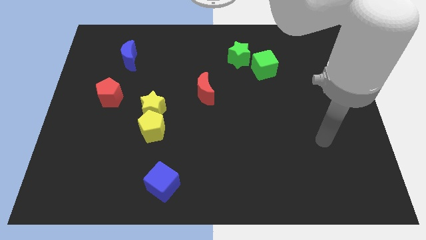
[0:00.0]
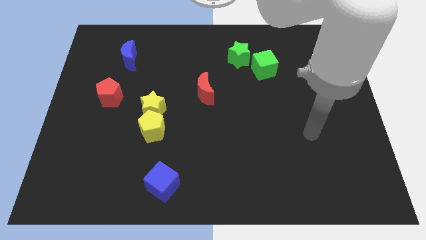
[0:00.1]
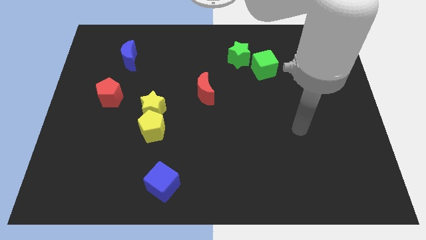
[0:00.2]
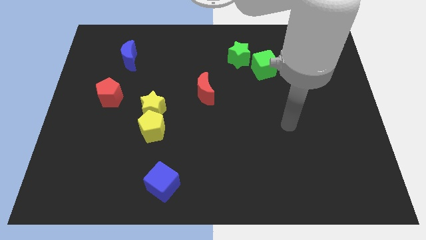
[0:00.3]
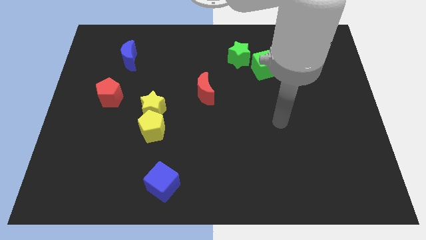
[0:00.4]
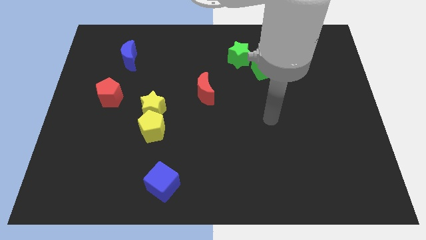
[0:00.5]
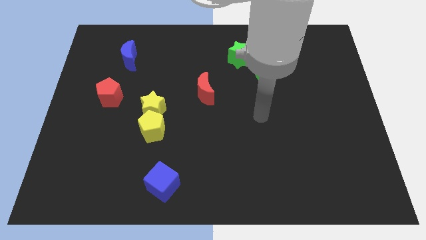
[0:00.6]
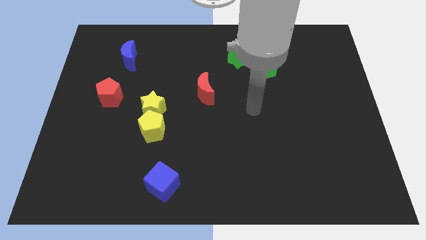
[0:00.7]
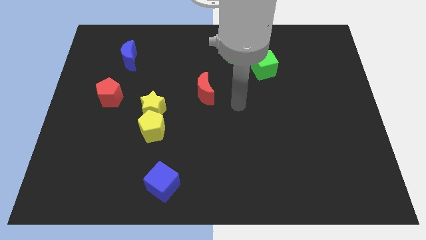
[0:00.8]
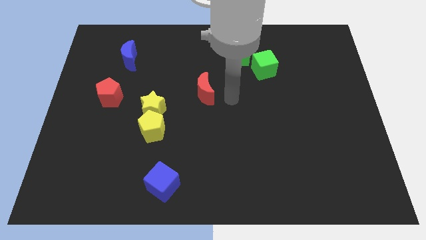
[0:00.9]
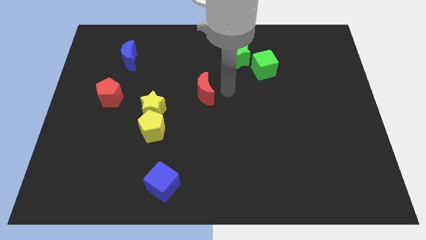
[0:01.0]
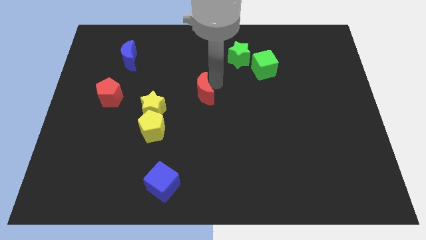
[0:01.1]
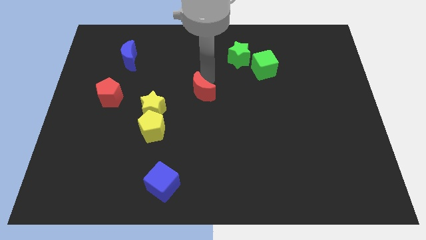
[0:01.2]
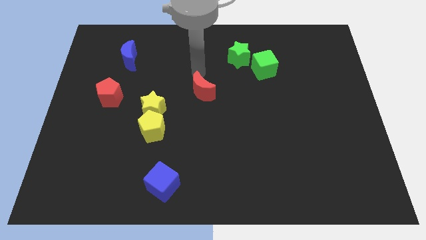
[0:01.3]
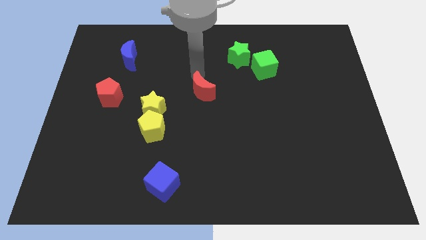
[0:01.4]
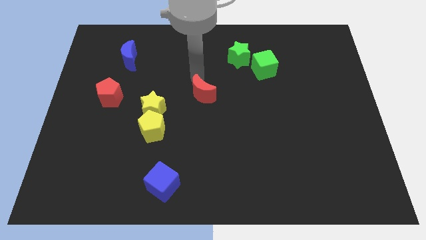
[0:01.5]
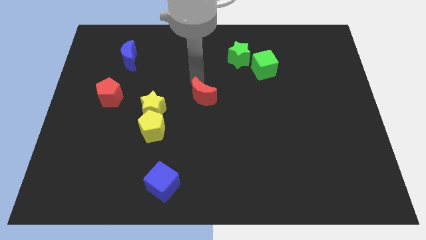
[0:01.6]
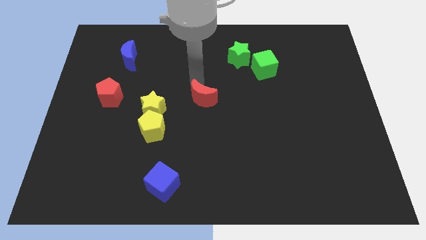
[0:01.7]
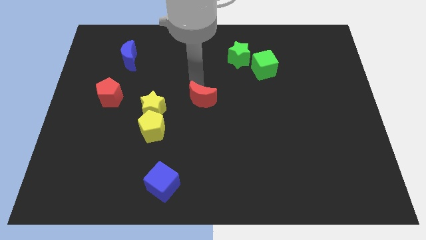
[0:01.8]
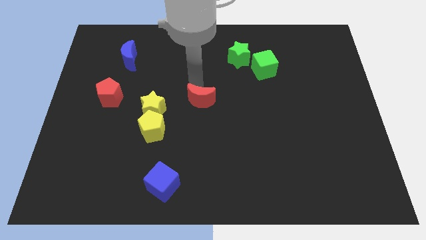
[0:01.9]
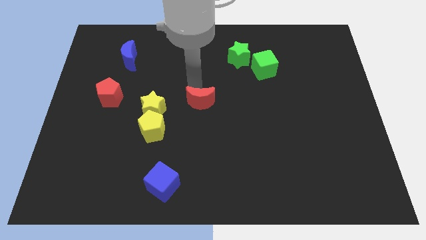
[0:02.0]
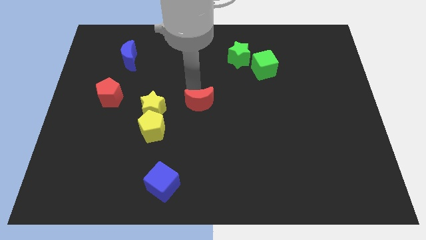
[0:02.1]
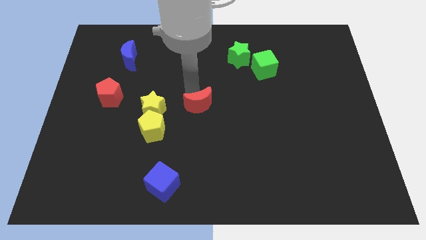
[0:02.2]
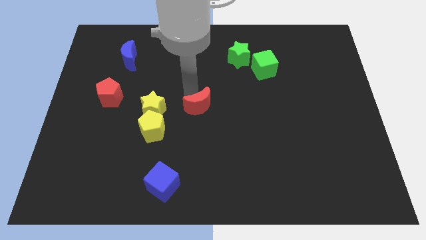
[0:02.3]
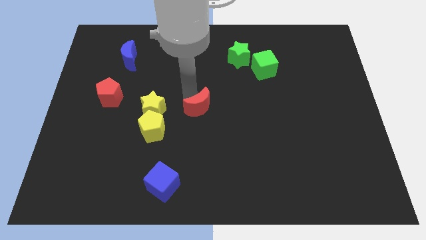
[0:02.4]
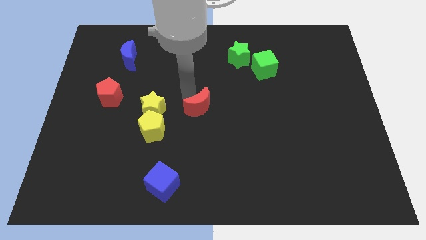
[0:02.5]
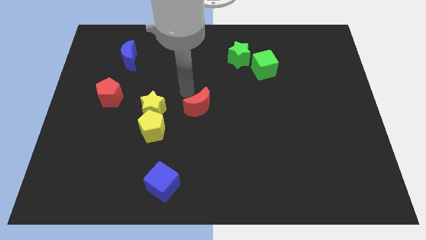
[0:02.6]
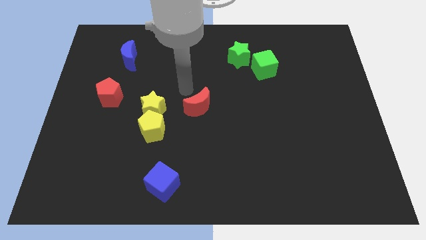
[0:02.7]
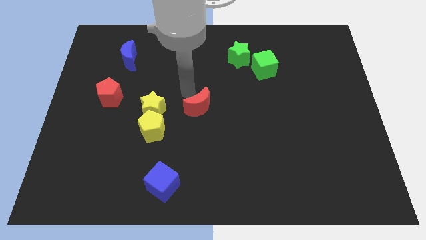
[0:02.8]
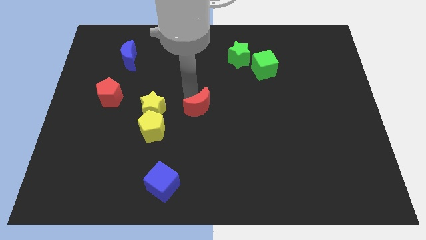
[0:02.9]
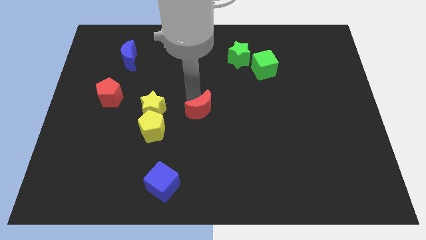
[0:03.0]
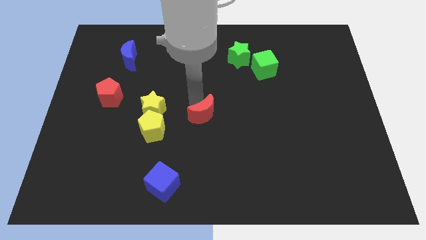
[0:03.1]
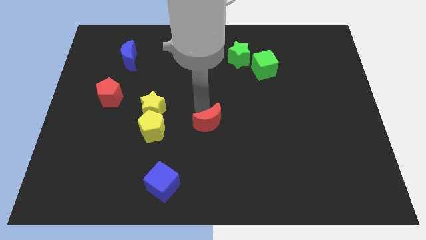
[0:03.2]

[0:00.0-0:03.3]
push the red moon a little down

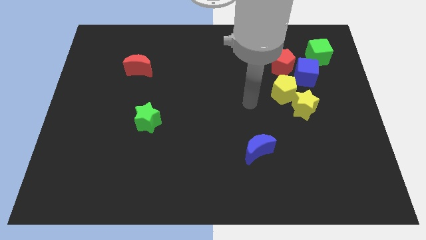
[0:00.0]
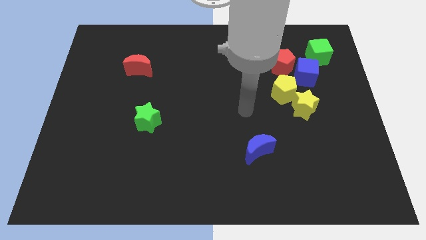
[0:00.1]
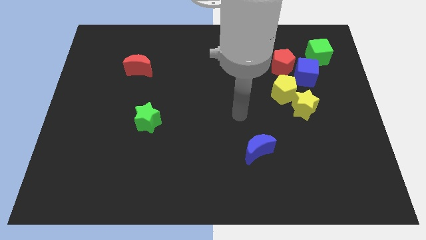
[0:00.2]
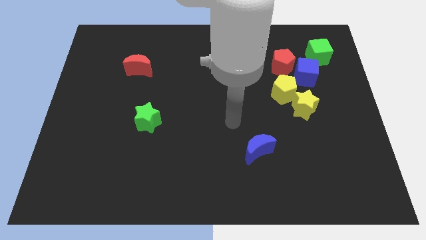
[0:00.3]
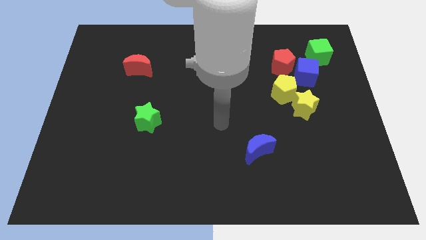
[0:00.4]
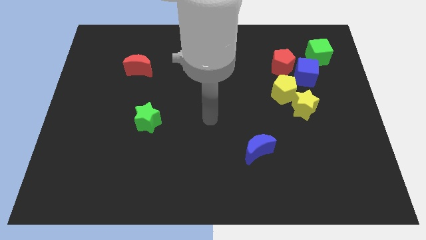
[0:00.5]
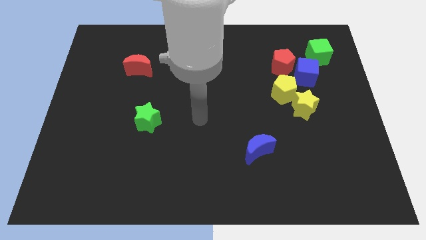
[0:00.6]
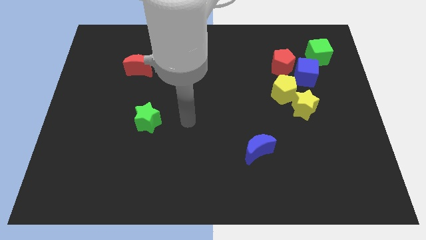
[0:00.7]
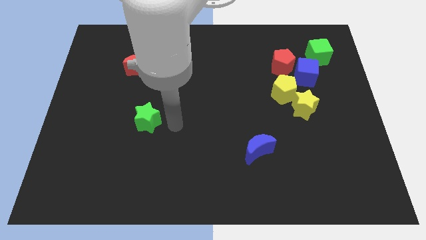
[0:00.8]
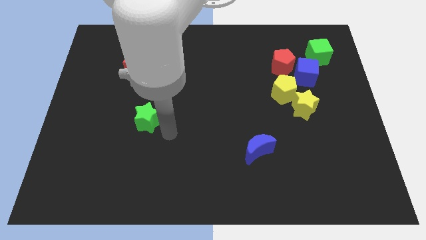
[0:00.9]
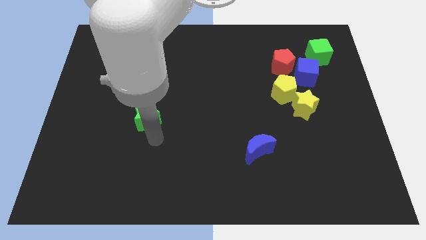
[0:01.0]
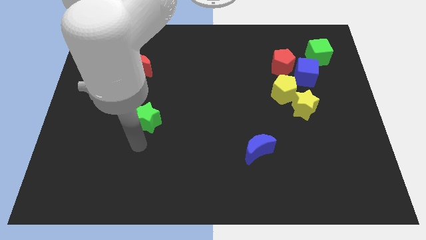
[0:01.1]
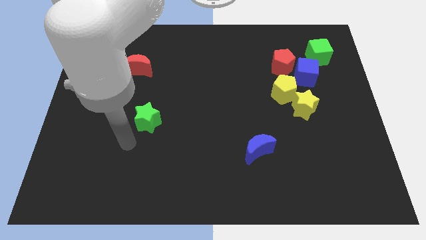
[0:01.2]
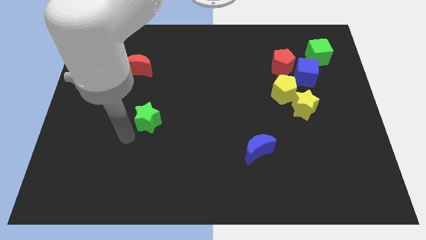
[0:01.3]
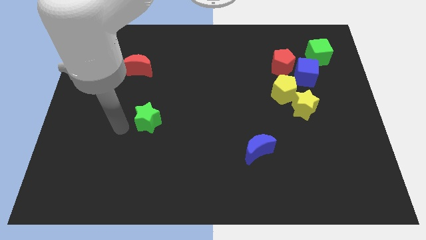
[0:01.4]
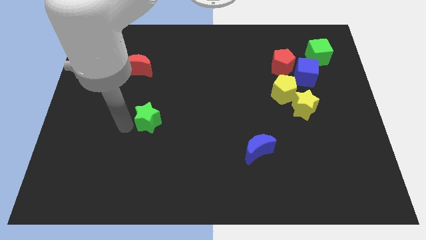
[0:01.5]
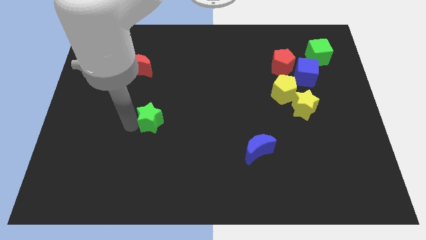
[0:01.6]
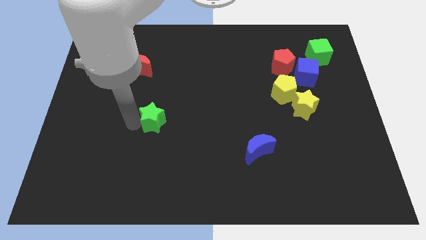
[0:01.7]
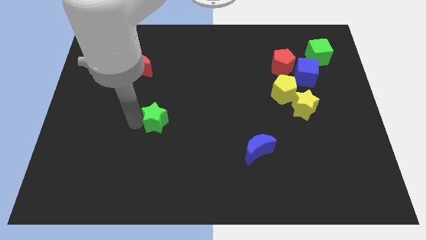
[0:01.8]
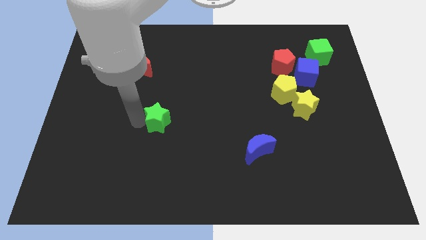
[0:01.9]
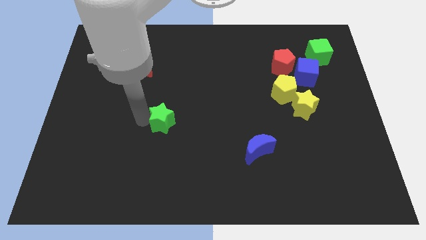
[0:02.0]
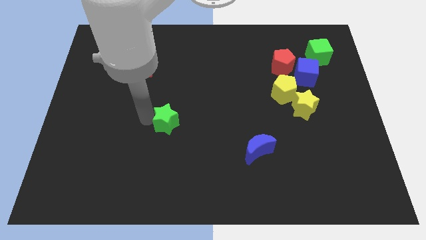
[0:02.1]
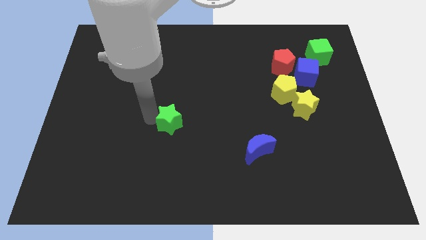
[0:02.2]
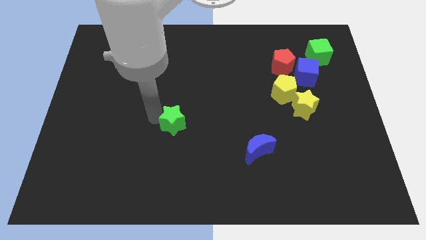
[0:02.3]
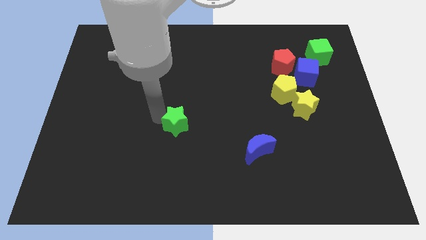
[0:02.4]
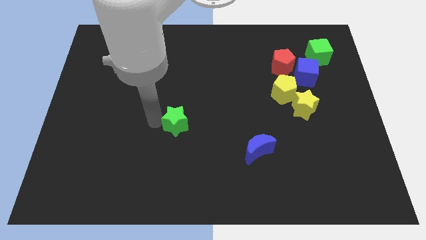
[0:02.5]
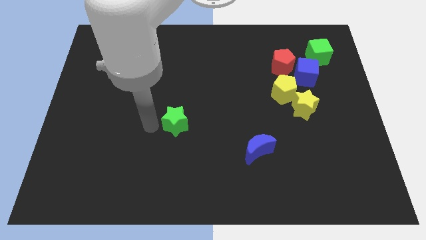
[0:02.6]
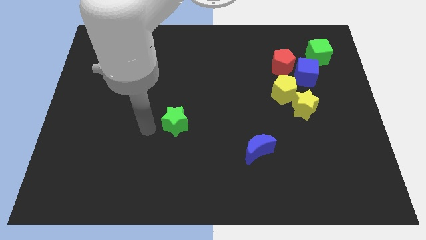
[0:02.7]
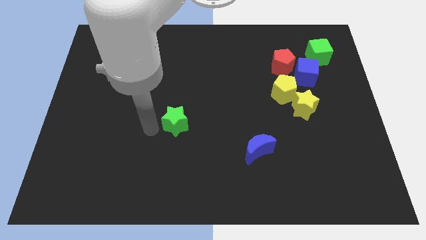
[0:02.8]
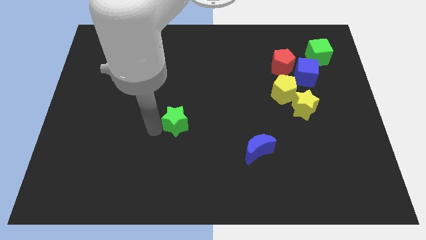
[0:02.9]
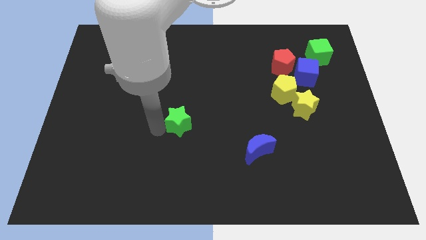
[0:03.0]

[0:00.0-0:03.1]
slightly slide the green star to the right

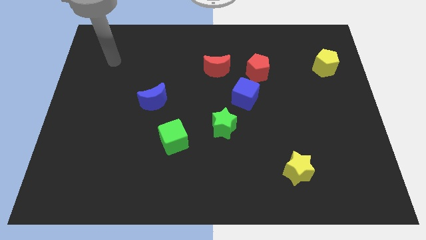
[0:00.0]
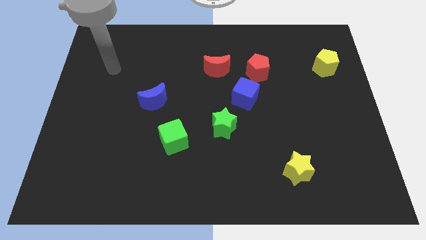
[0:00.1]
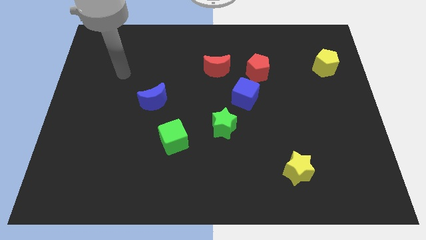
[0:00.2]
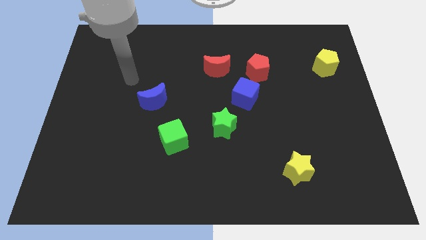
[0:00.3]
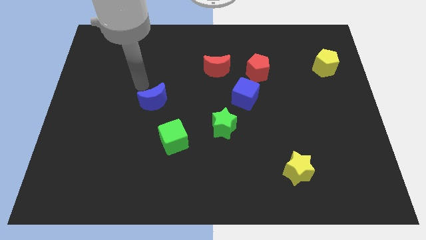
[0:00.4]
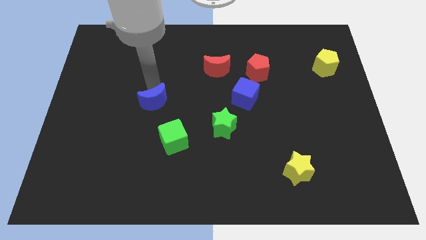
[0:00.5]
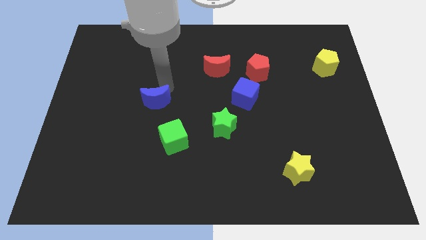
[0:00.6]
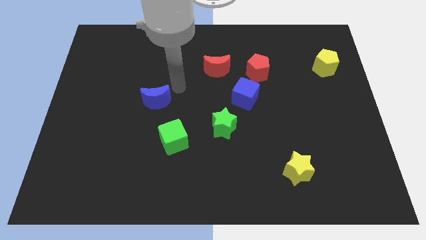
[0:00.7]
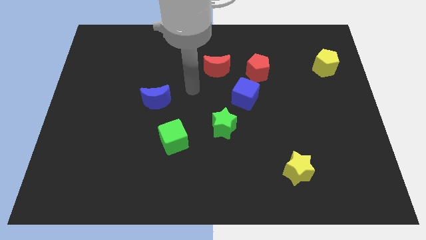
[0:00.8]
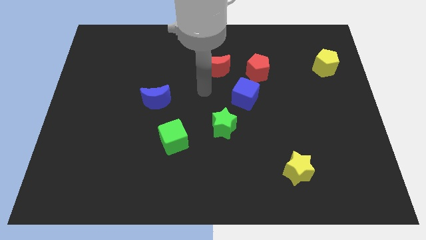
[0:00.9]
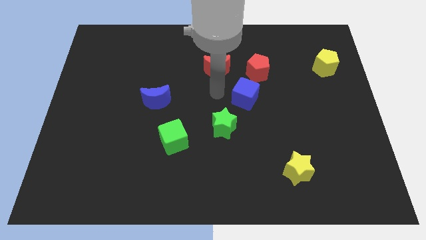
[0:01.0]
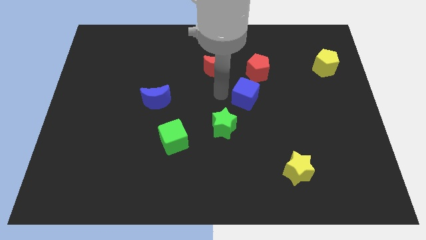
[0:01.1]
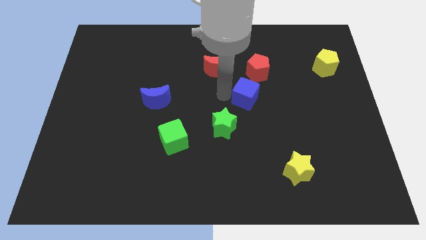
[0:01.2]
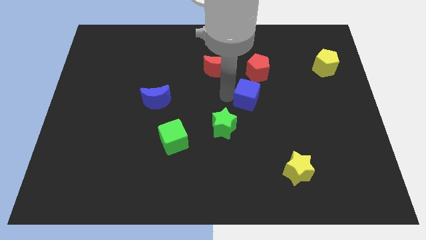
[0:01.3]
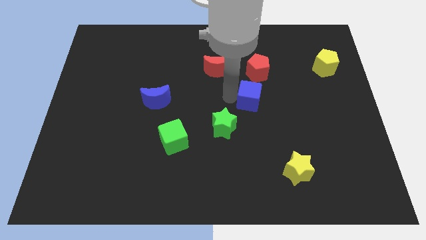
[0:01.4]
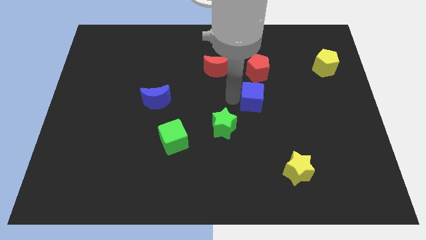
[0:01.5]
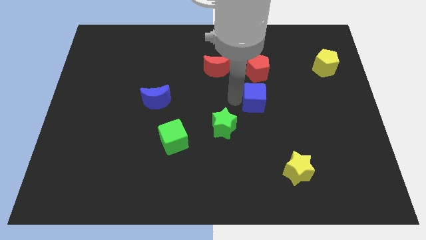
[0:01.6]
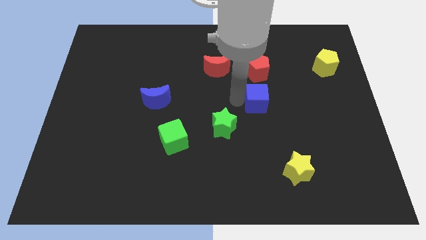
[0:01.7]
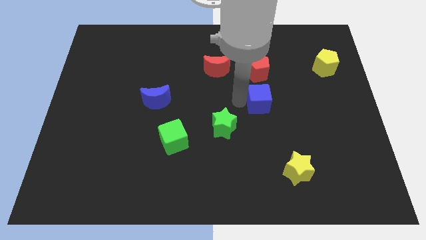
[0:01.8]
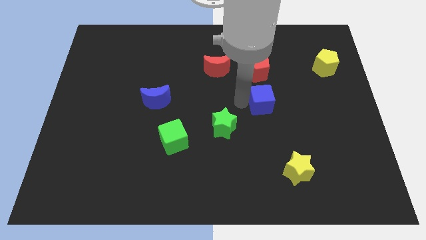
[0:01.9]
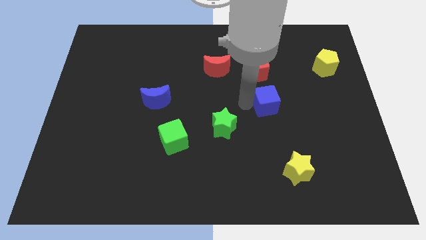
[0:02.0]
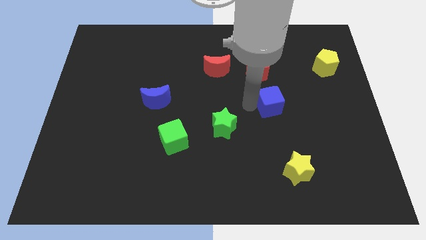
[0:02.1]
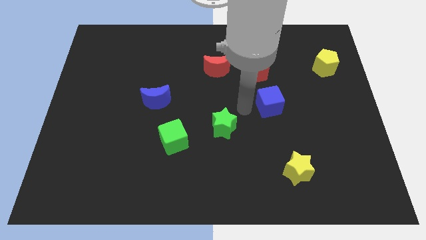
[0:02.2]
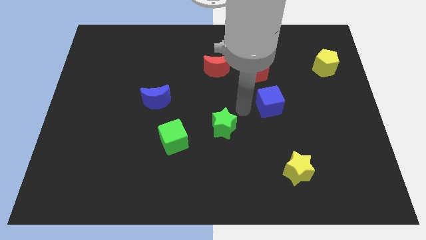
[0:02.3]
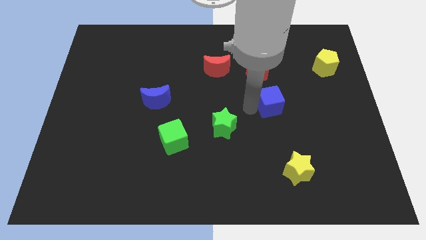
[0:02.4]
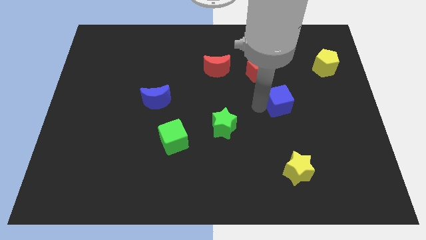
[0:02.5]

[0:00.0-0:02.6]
push the blue cube a little bit right
